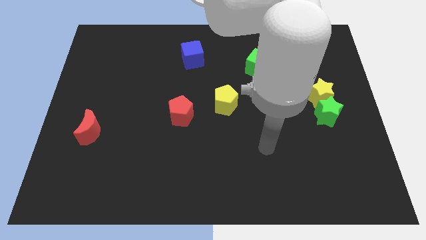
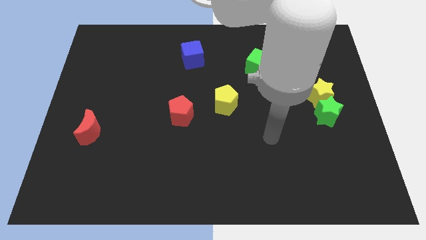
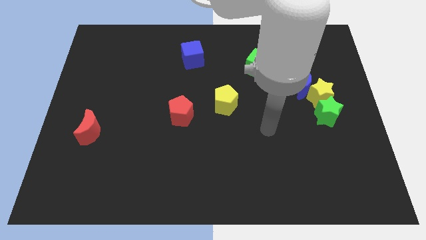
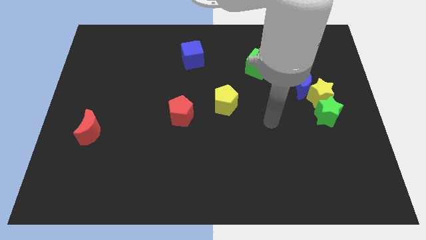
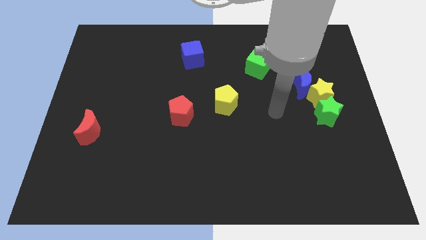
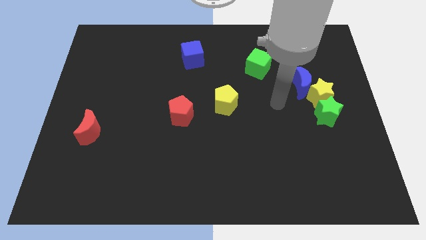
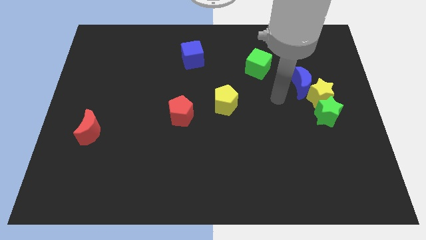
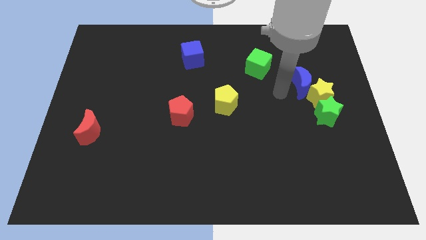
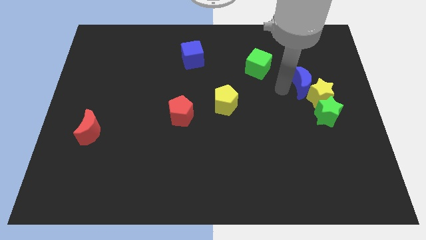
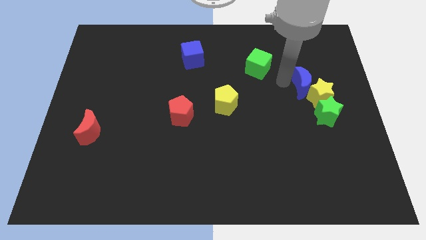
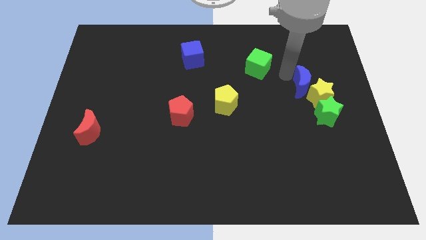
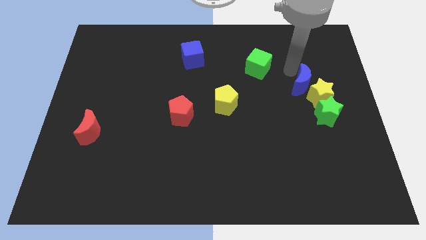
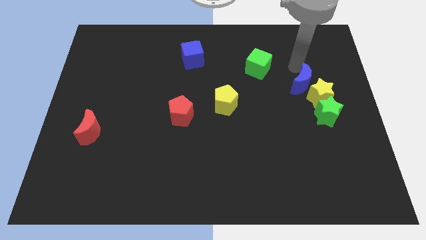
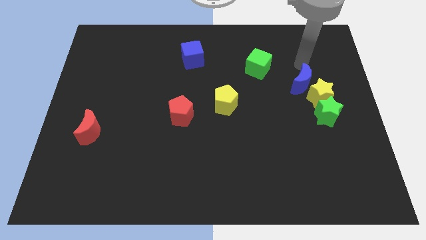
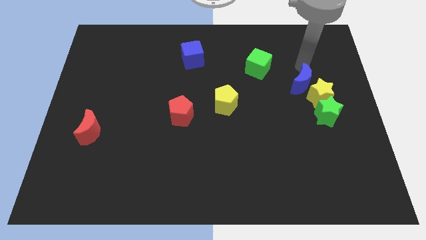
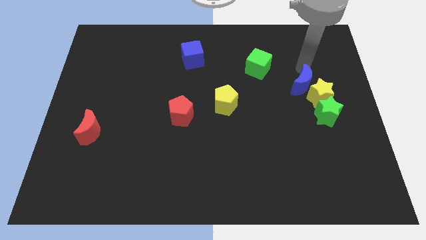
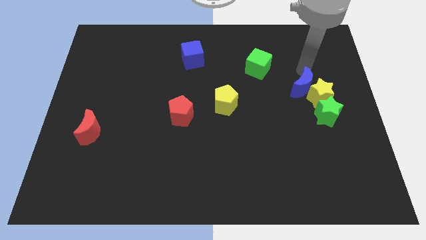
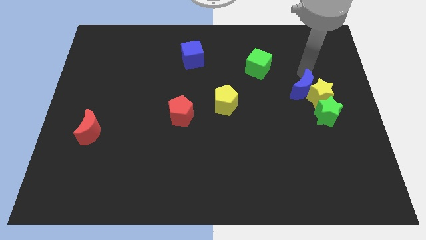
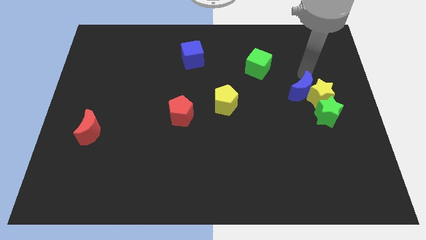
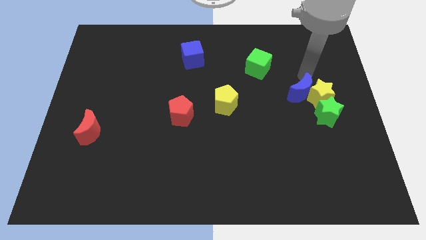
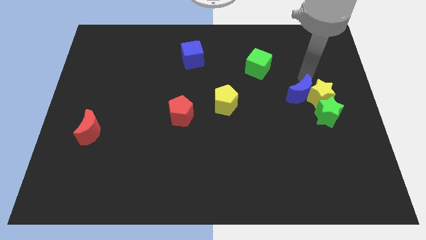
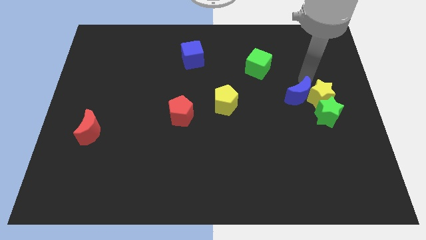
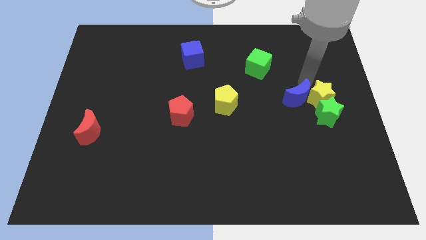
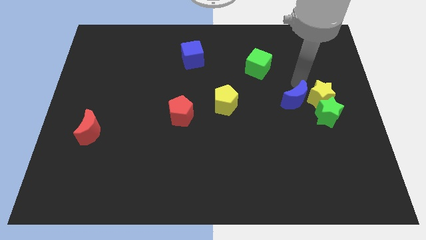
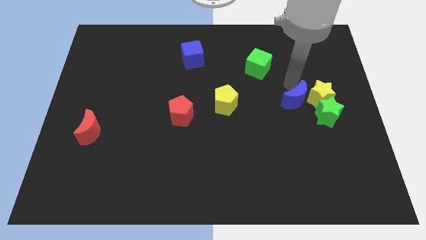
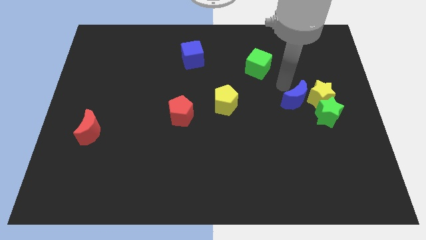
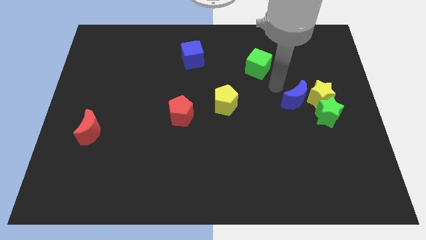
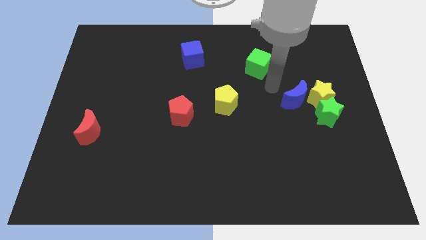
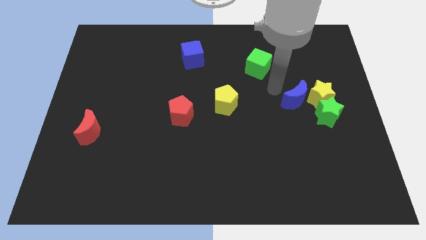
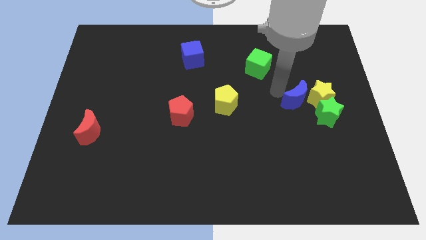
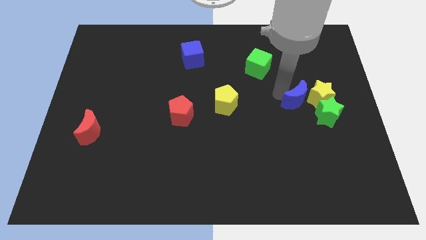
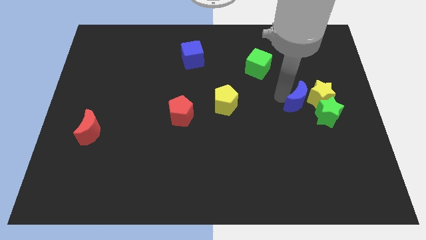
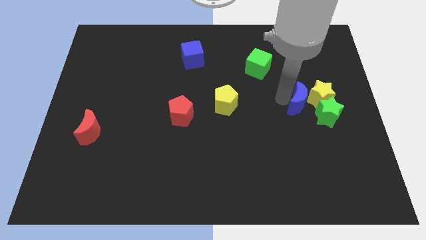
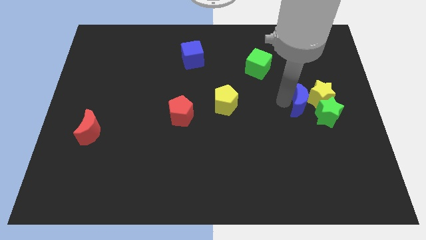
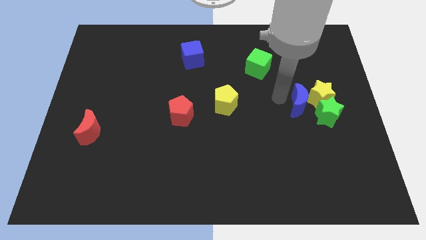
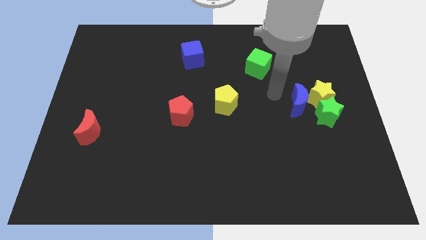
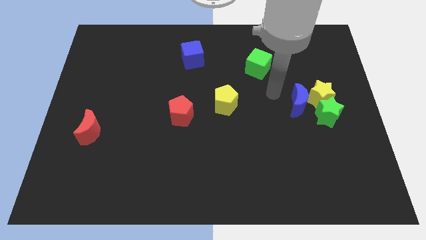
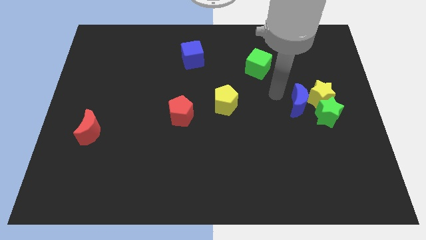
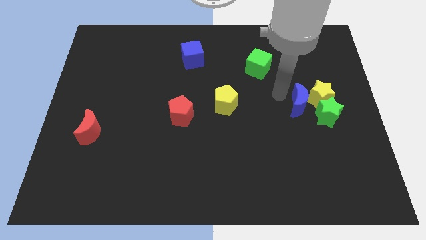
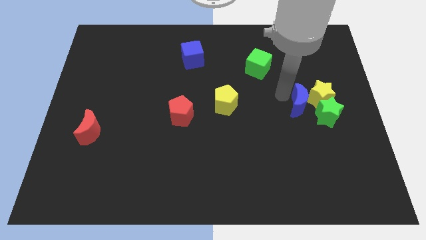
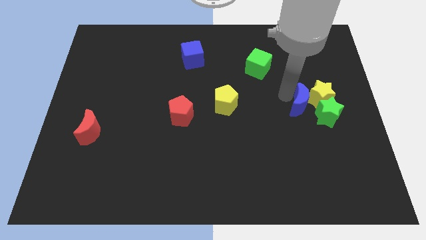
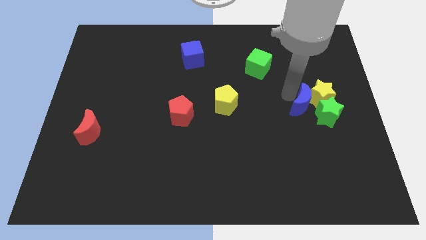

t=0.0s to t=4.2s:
slide the blue moon to the green star

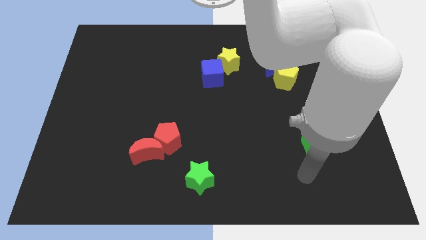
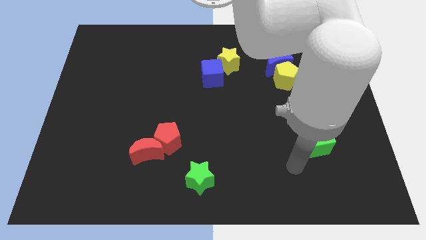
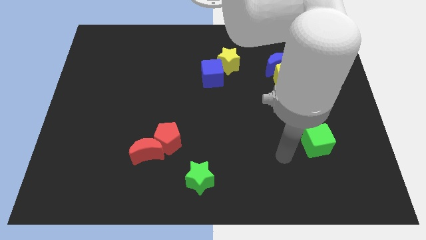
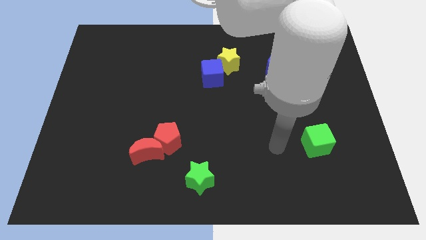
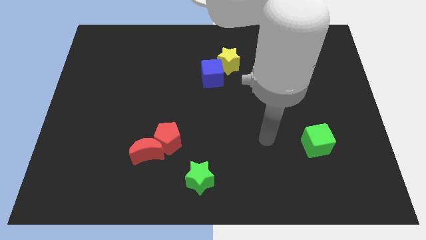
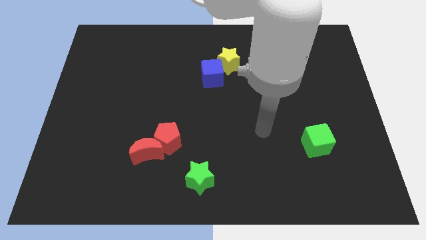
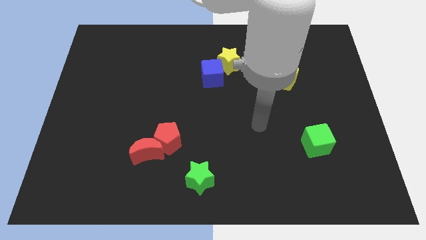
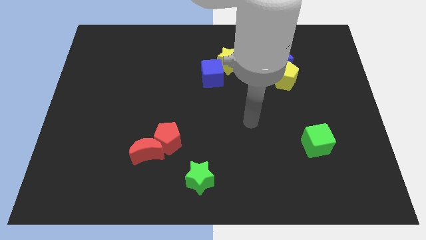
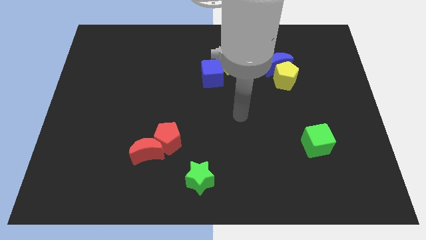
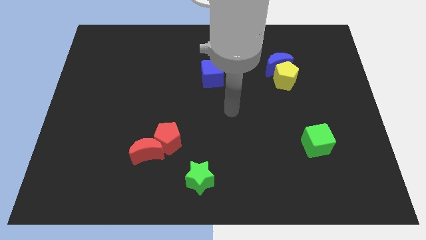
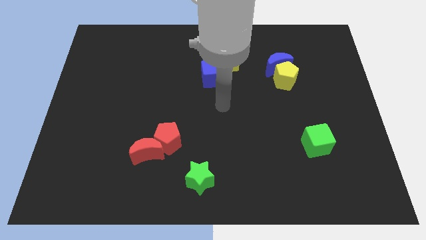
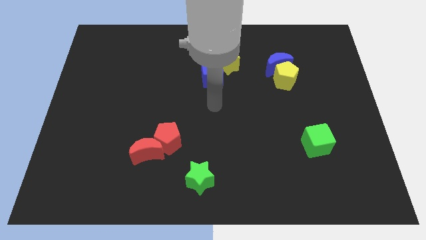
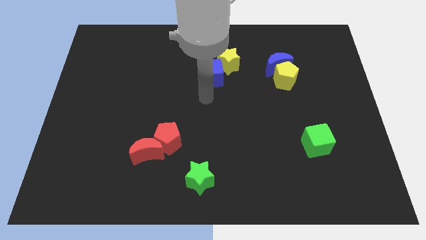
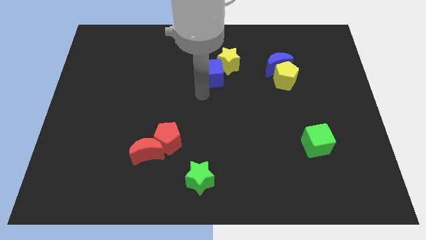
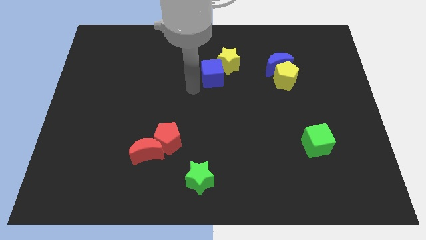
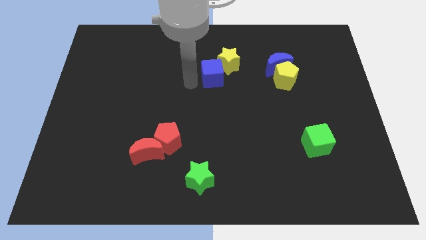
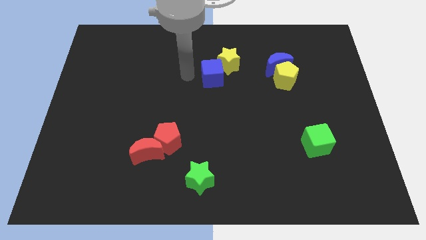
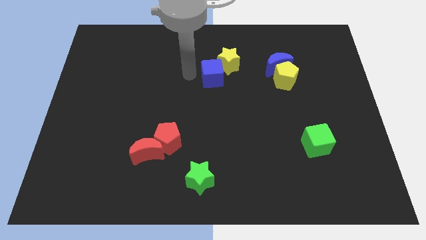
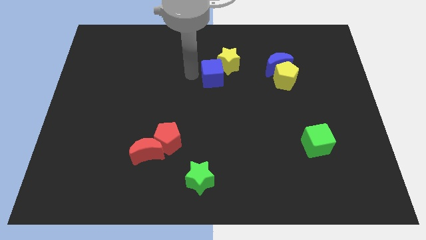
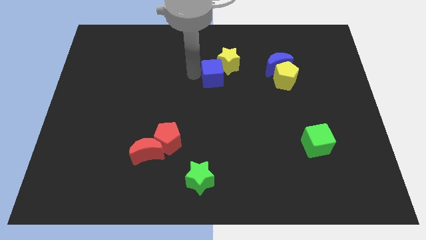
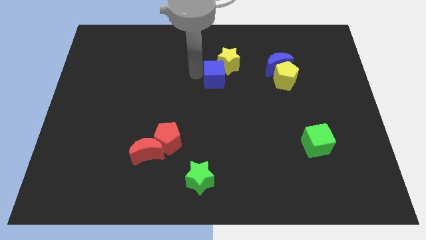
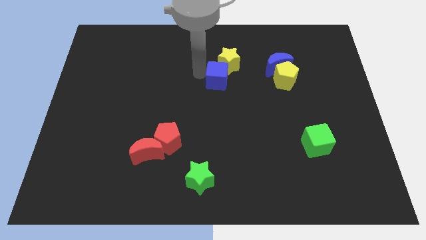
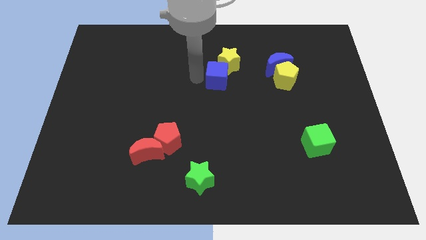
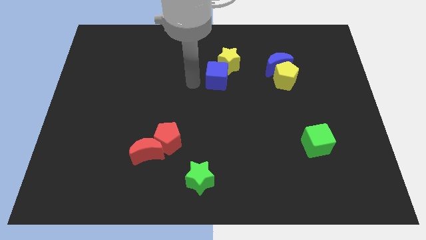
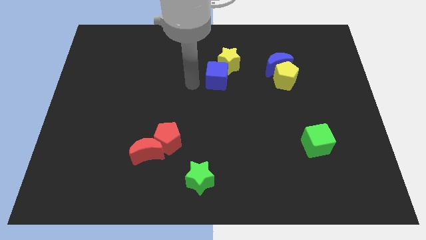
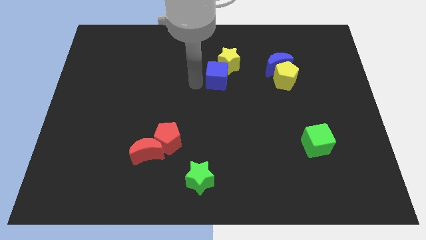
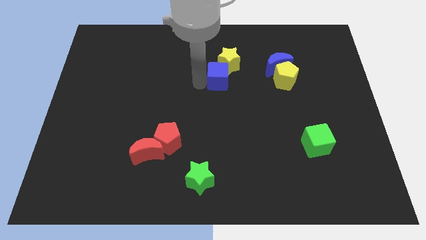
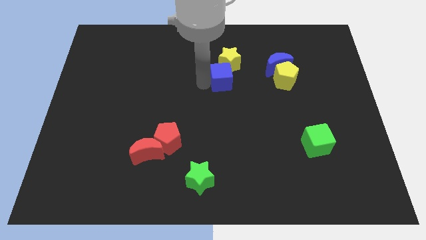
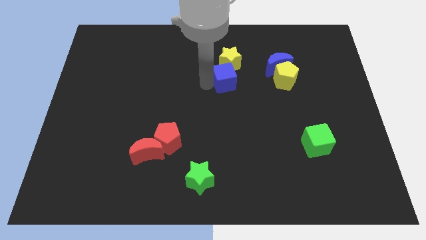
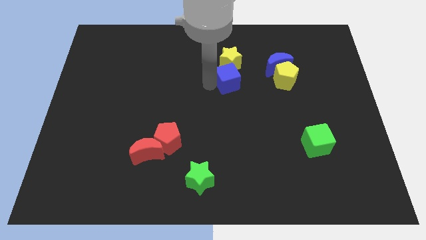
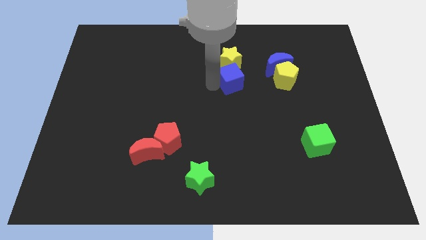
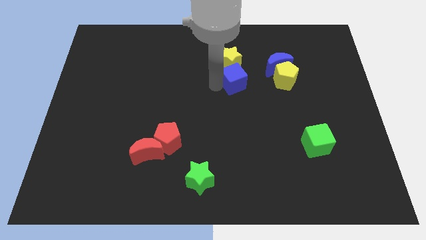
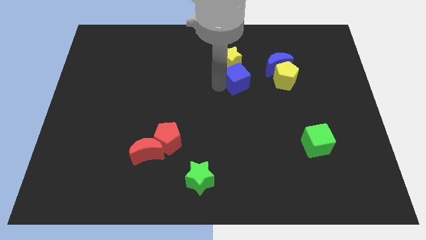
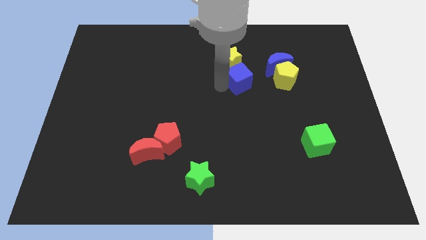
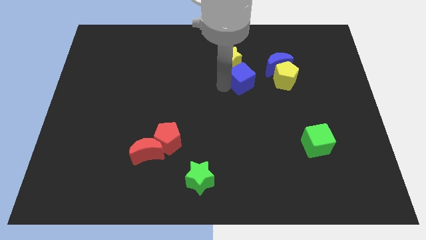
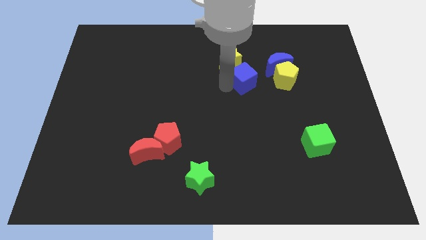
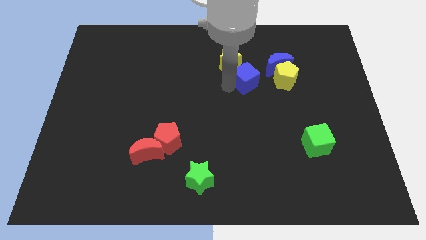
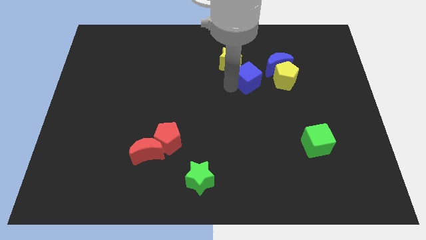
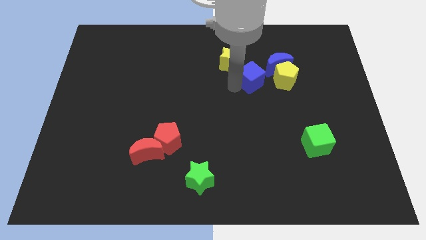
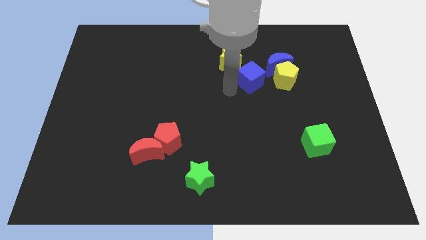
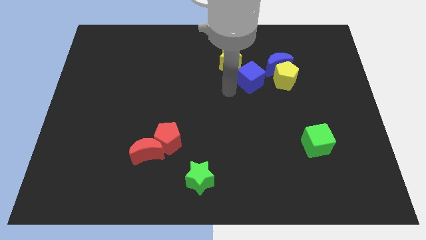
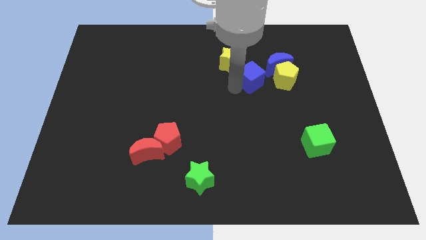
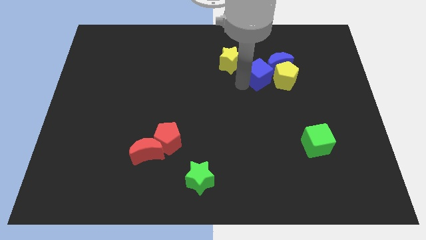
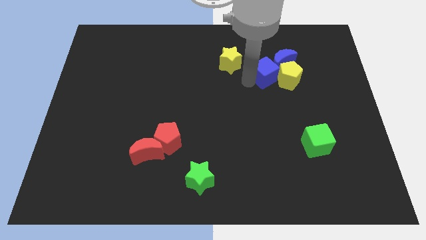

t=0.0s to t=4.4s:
move the blue cube towards the blue moon

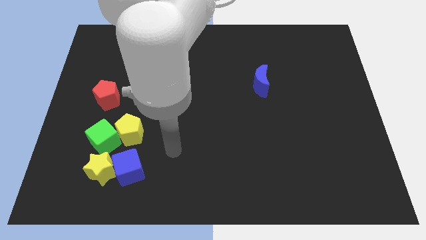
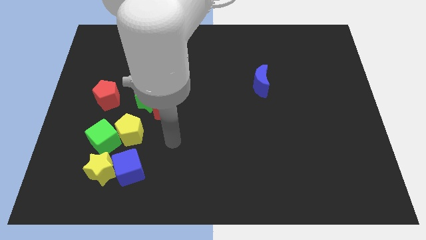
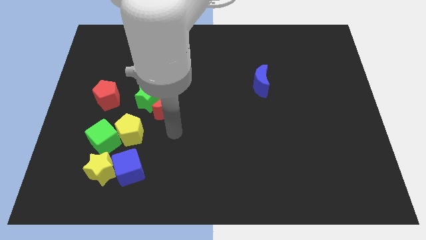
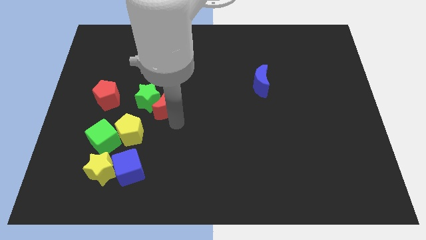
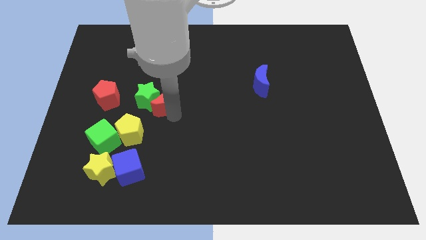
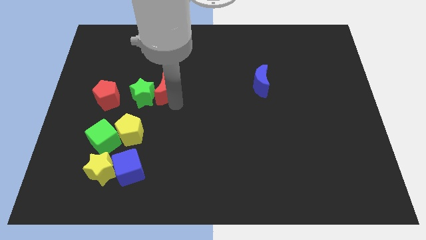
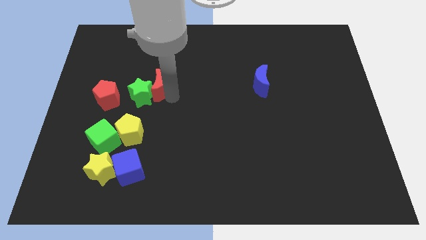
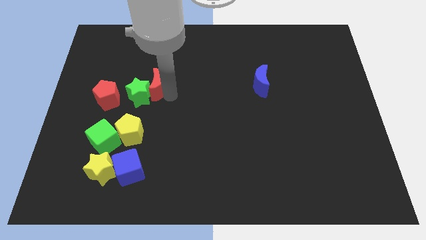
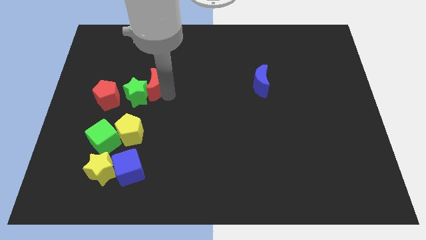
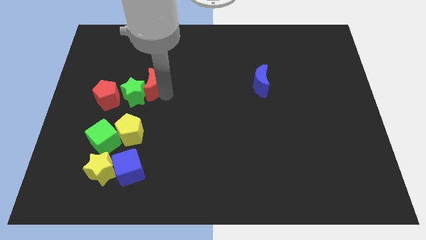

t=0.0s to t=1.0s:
slide the green star next to the red pentagon
